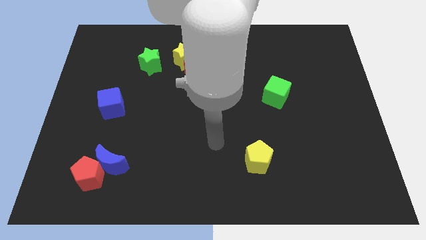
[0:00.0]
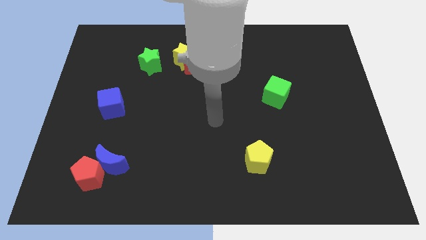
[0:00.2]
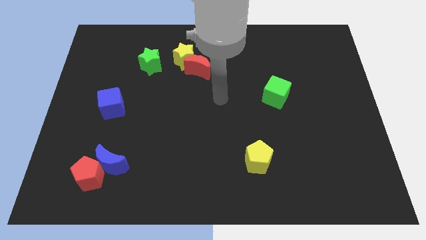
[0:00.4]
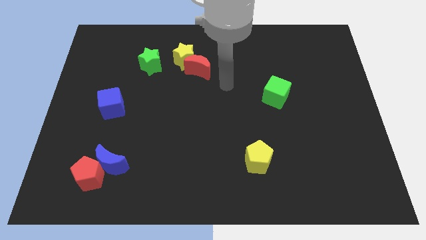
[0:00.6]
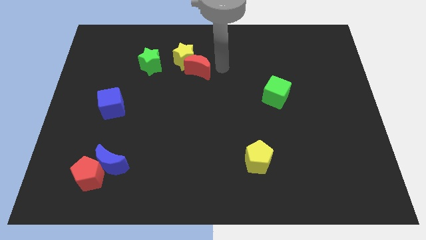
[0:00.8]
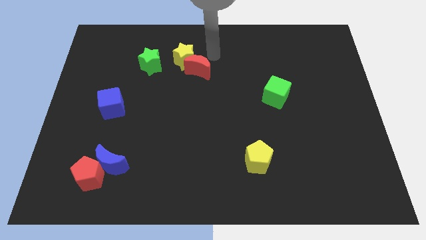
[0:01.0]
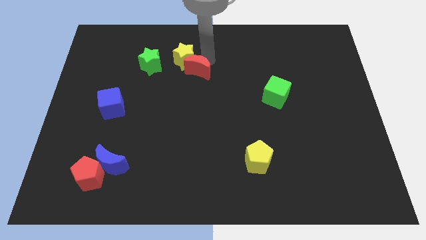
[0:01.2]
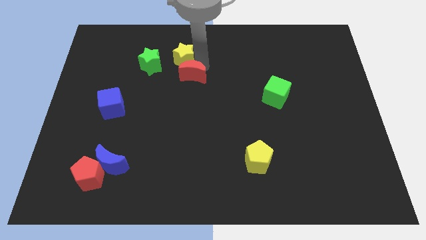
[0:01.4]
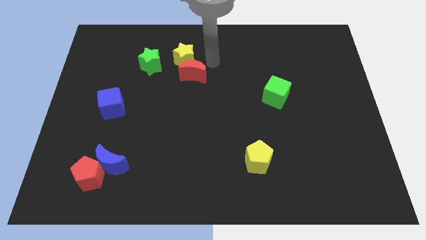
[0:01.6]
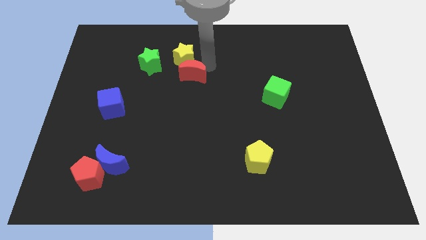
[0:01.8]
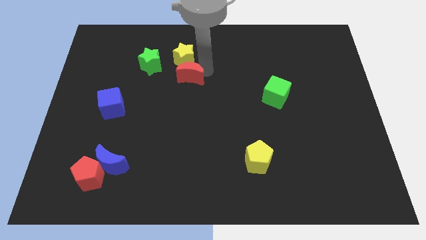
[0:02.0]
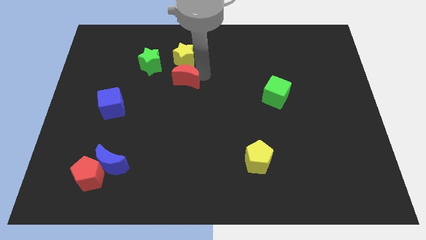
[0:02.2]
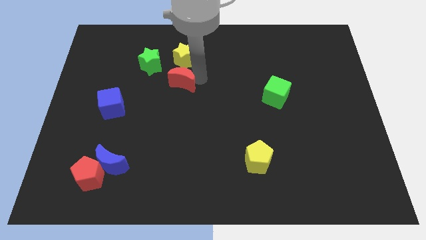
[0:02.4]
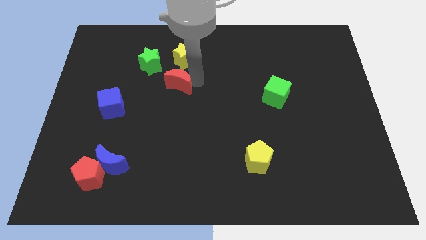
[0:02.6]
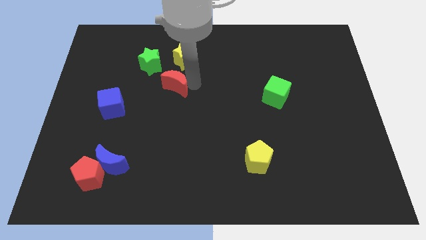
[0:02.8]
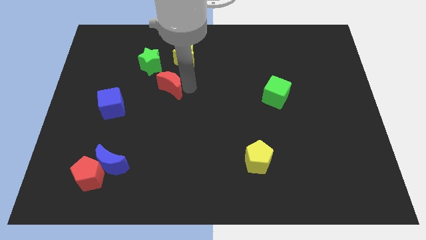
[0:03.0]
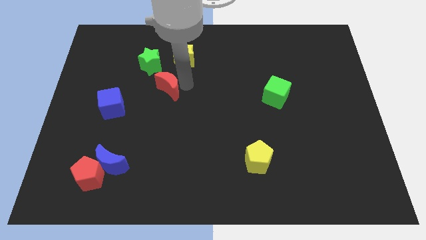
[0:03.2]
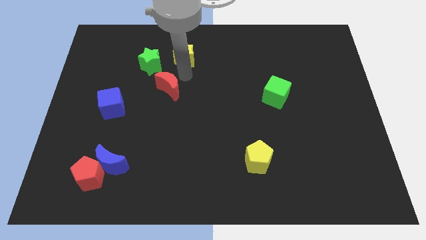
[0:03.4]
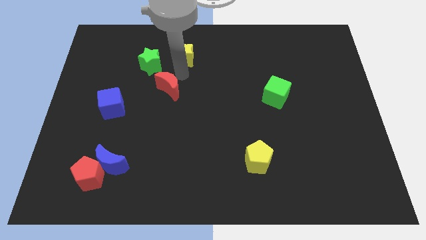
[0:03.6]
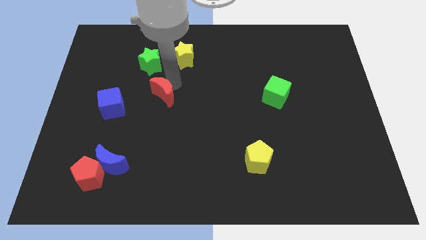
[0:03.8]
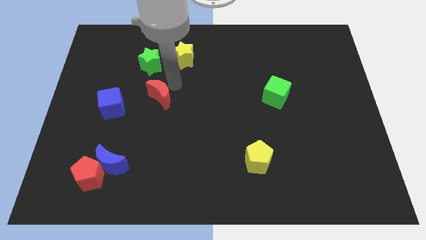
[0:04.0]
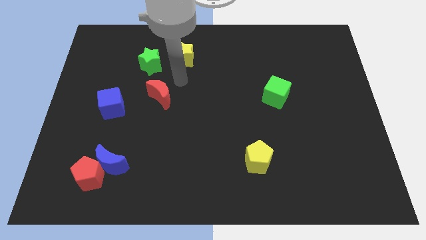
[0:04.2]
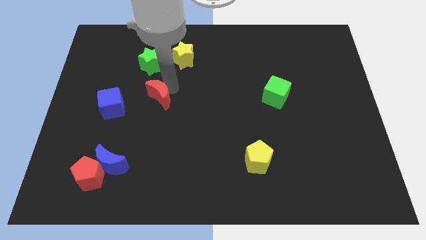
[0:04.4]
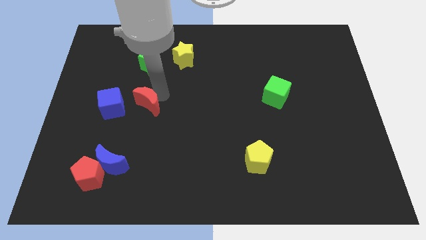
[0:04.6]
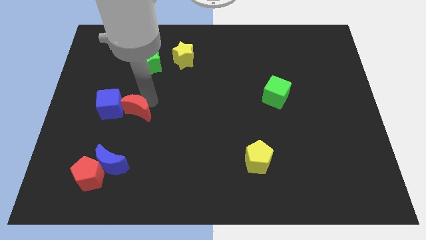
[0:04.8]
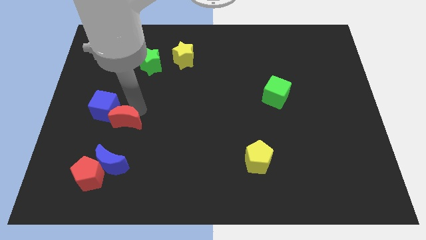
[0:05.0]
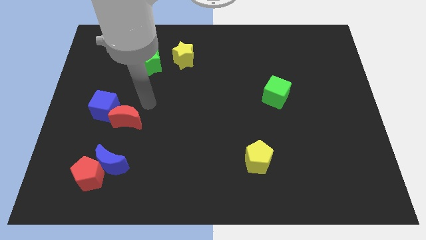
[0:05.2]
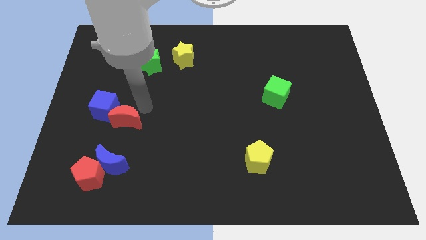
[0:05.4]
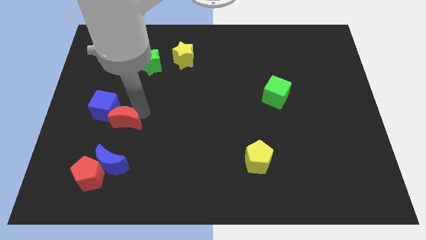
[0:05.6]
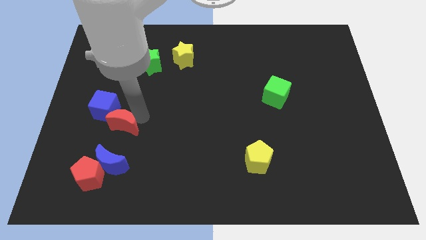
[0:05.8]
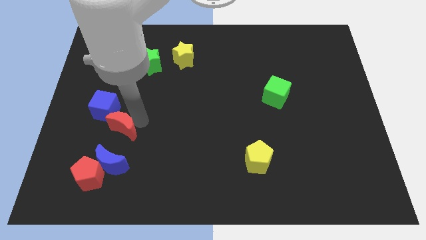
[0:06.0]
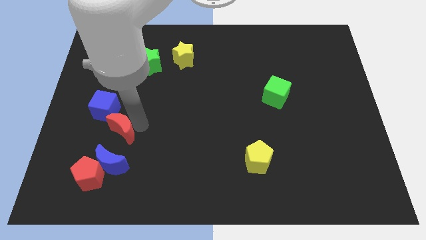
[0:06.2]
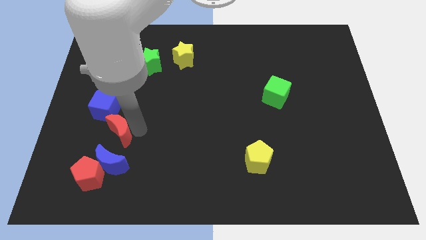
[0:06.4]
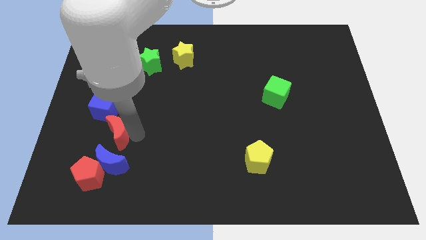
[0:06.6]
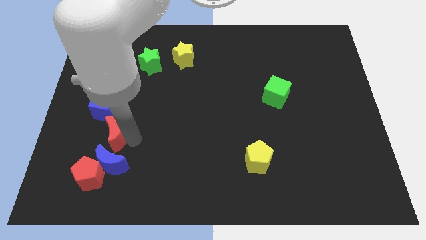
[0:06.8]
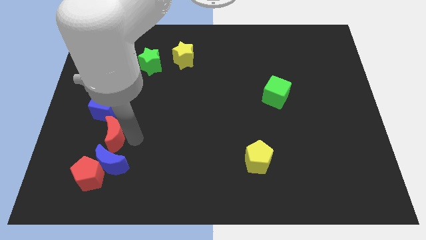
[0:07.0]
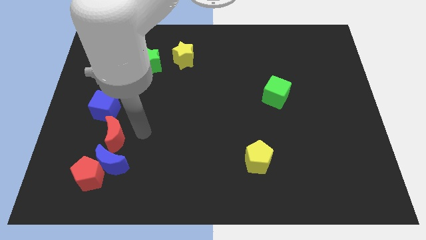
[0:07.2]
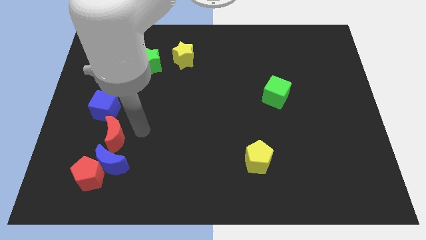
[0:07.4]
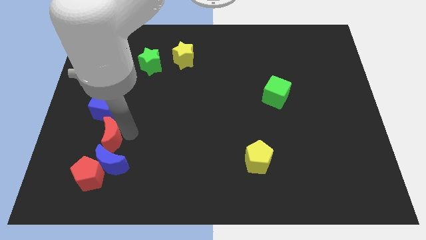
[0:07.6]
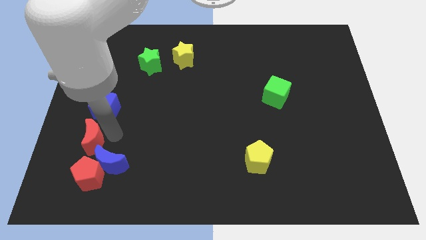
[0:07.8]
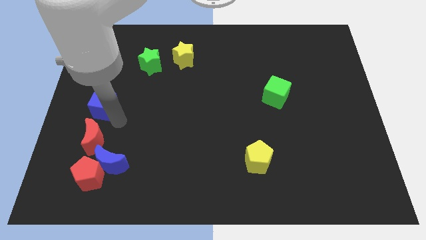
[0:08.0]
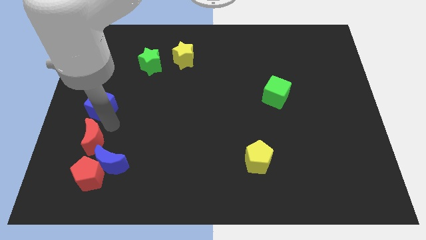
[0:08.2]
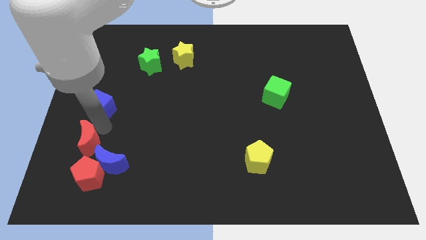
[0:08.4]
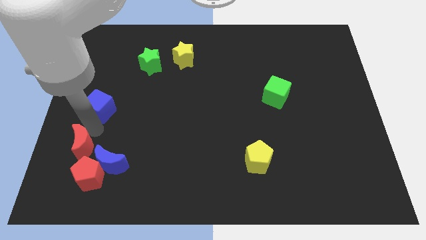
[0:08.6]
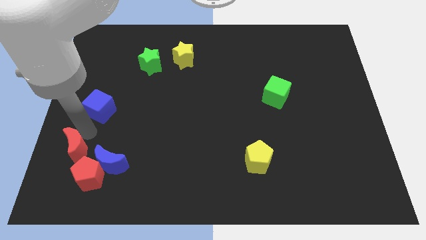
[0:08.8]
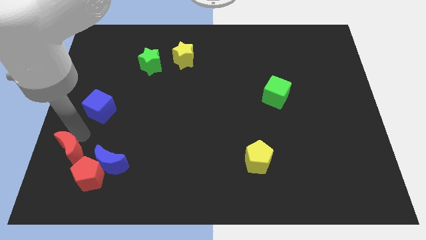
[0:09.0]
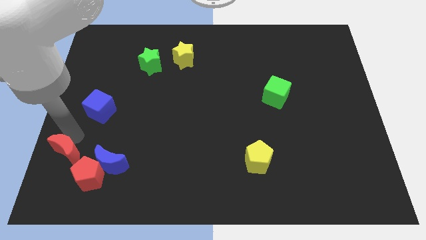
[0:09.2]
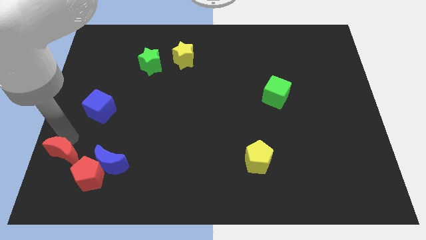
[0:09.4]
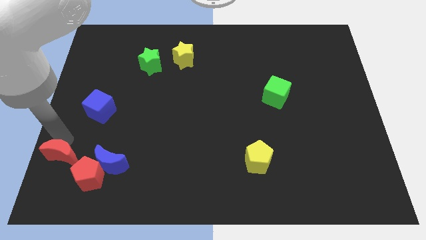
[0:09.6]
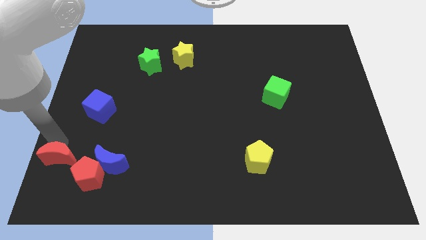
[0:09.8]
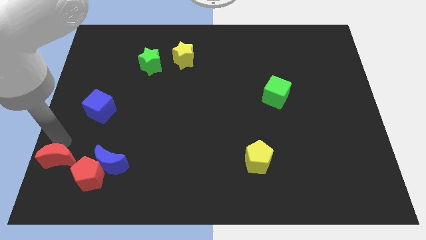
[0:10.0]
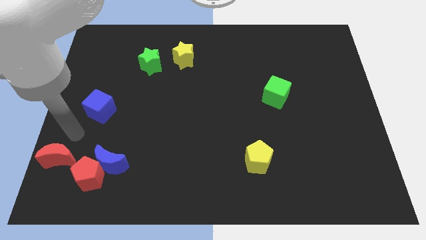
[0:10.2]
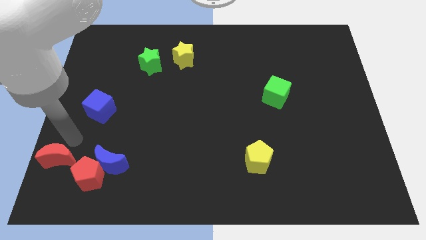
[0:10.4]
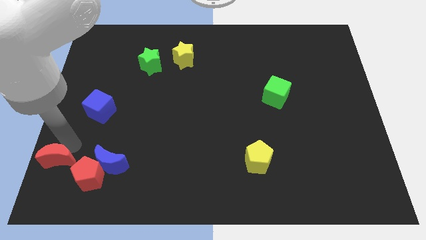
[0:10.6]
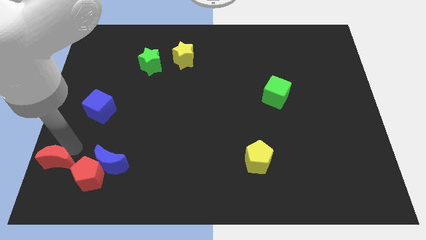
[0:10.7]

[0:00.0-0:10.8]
slide the red moon to the bottom left of the board
